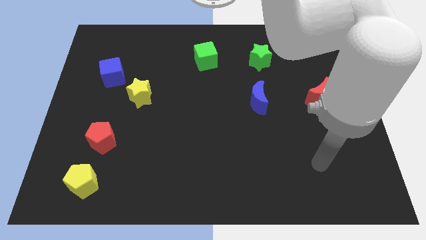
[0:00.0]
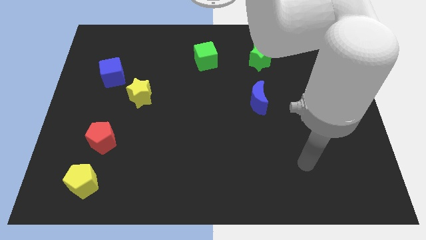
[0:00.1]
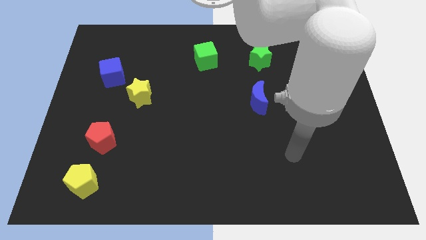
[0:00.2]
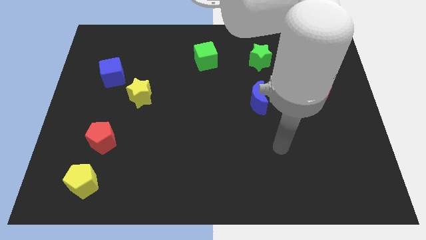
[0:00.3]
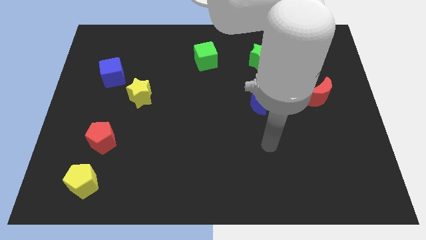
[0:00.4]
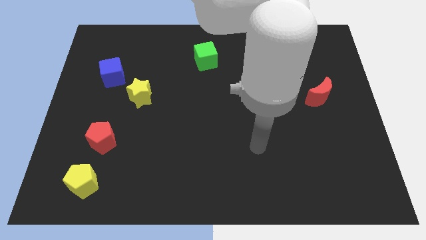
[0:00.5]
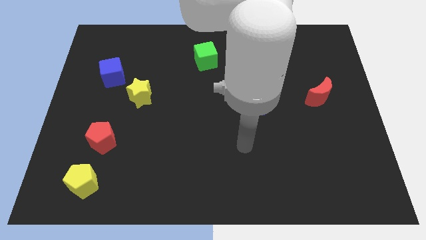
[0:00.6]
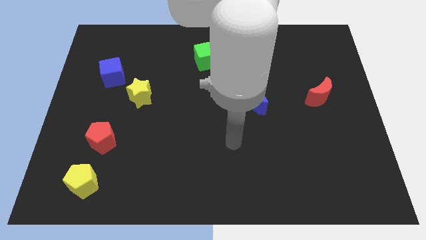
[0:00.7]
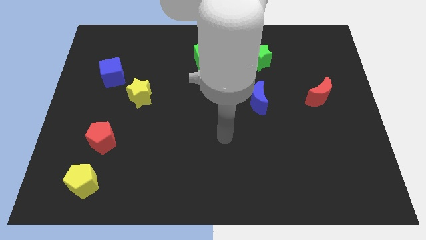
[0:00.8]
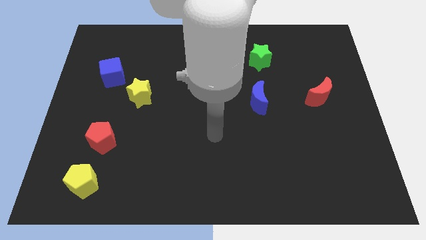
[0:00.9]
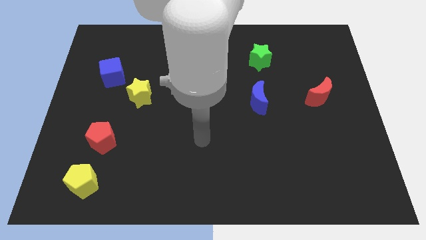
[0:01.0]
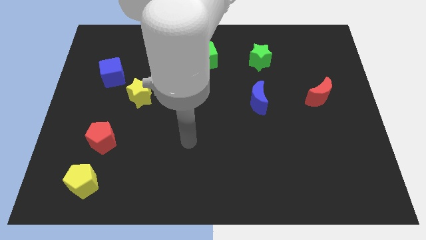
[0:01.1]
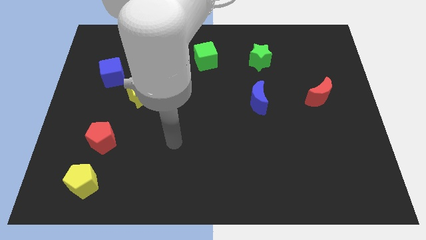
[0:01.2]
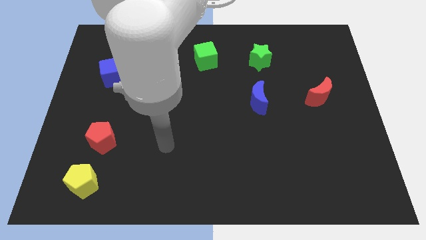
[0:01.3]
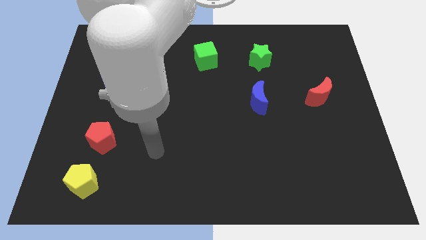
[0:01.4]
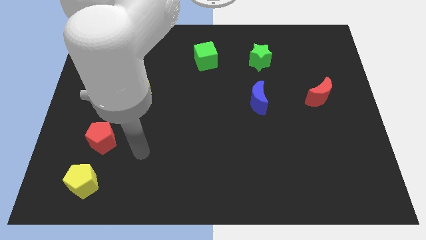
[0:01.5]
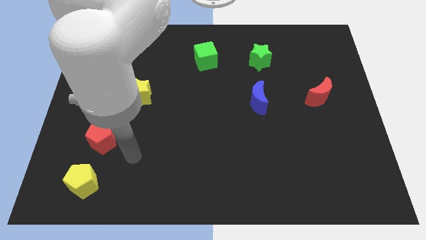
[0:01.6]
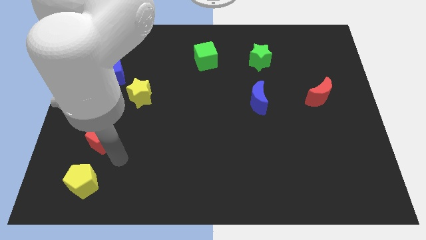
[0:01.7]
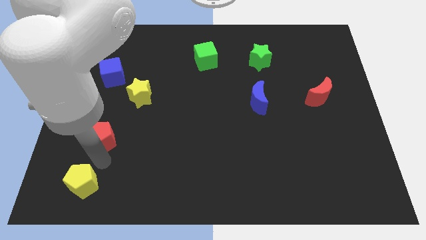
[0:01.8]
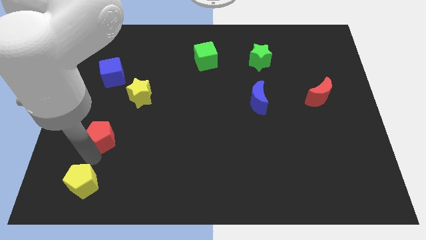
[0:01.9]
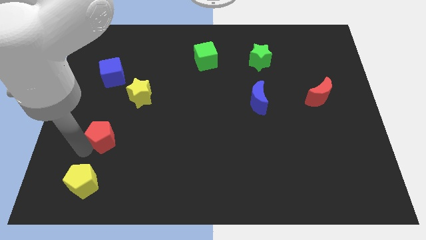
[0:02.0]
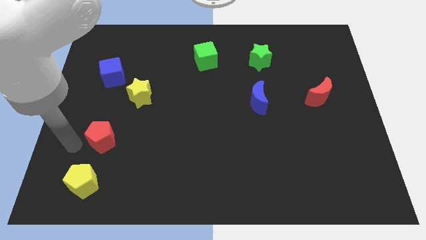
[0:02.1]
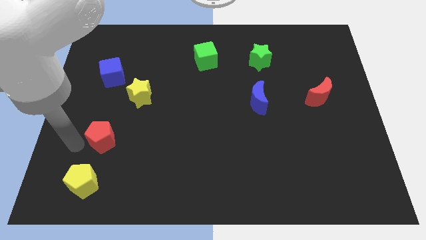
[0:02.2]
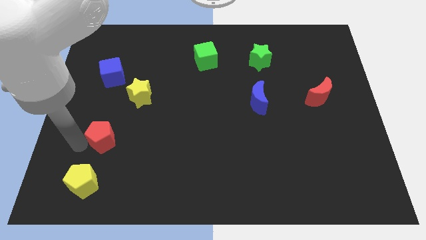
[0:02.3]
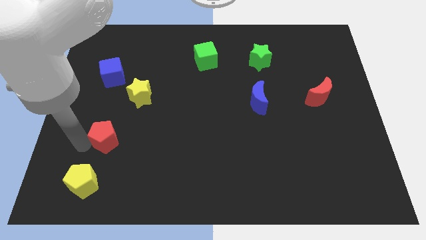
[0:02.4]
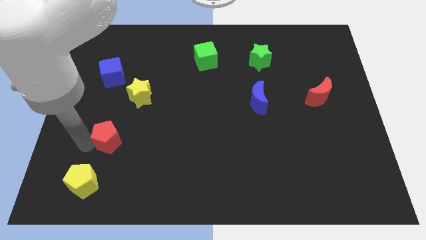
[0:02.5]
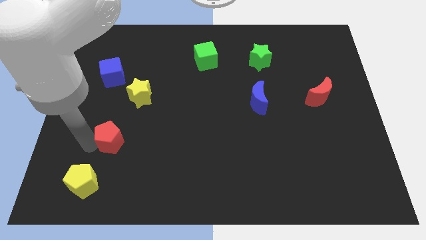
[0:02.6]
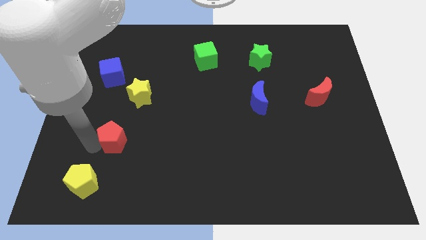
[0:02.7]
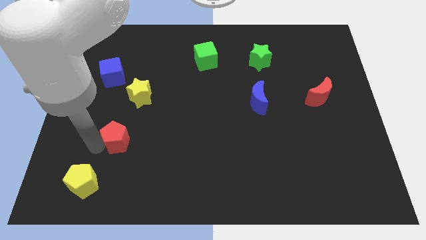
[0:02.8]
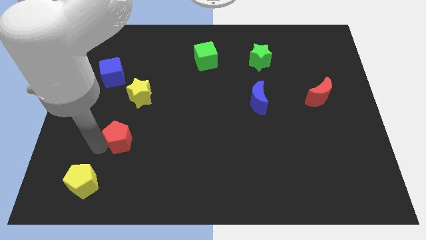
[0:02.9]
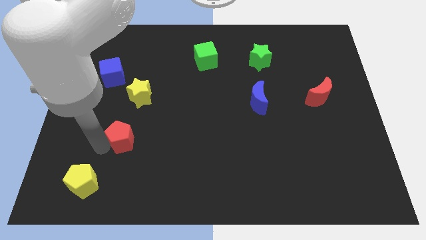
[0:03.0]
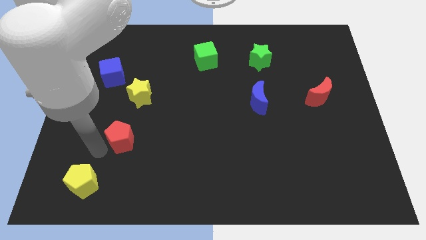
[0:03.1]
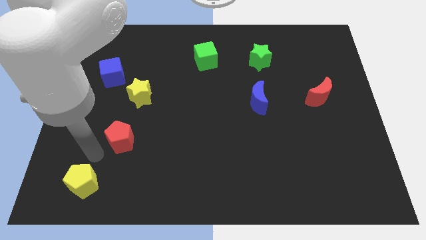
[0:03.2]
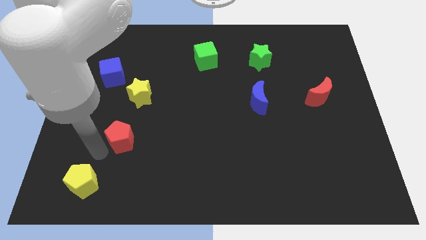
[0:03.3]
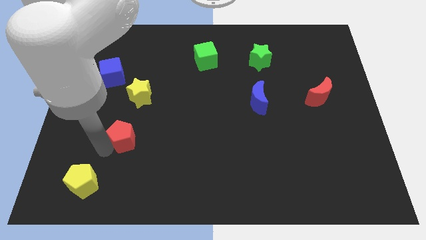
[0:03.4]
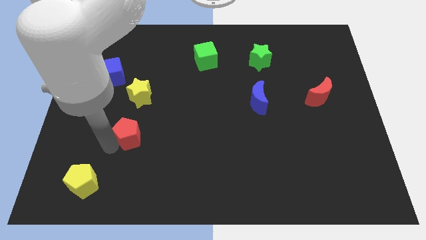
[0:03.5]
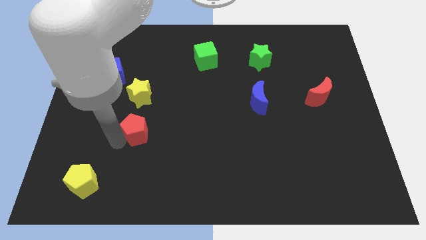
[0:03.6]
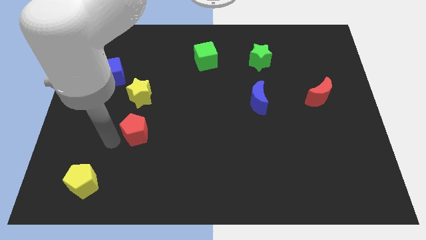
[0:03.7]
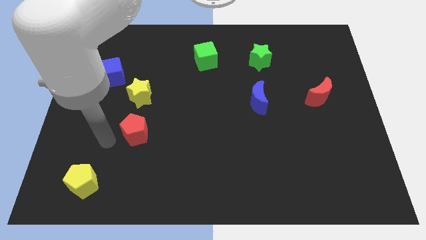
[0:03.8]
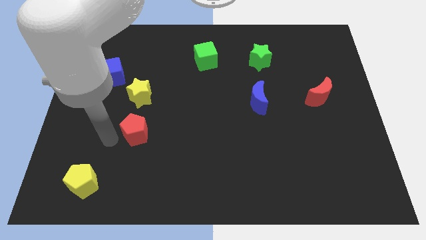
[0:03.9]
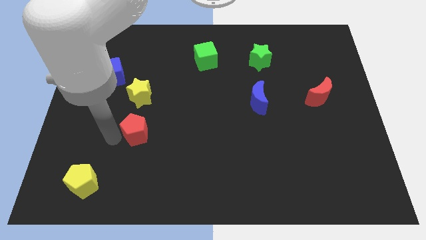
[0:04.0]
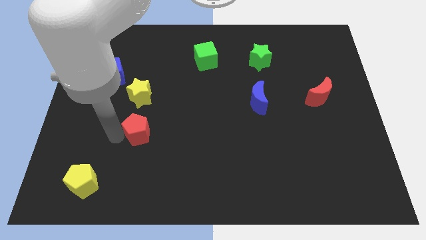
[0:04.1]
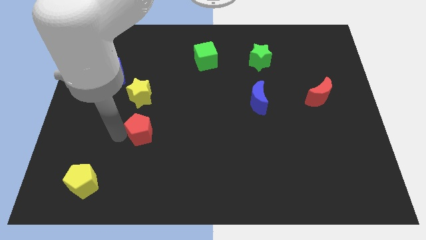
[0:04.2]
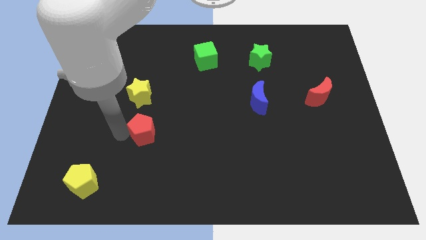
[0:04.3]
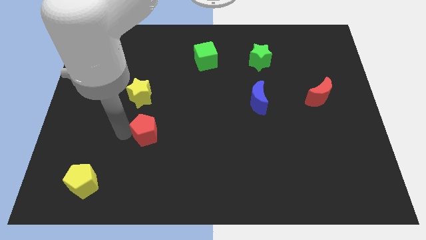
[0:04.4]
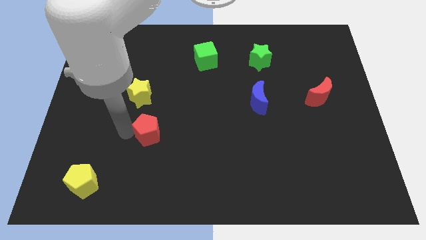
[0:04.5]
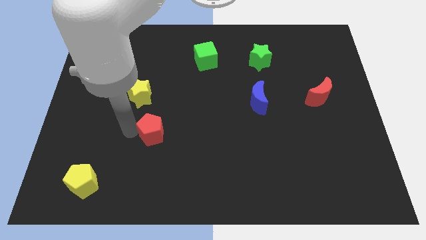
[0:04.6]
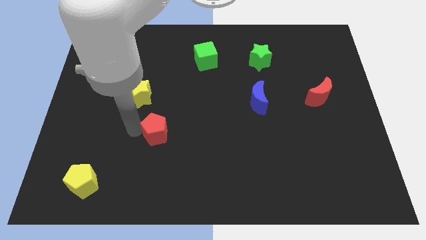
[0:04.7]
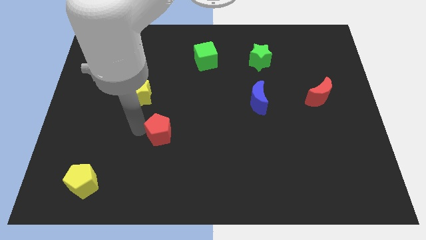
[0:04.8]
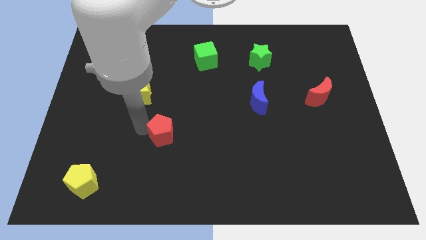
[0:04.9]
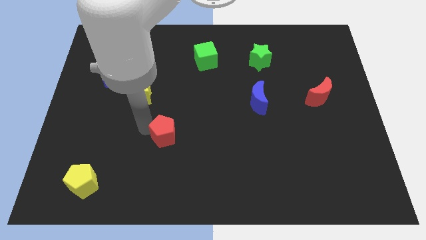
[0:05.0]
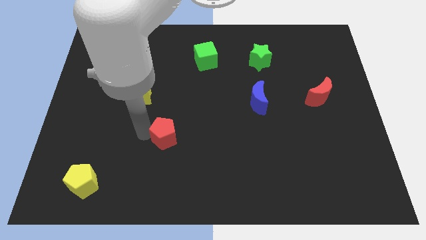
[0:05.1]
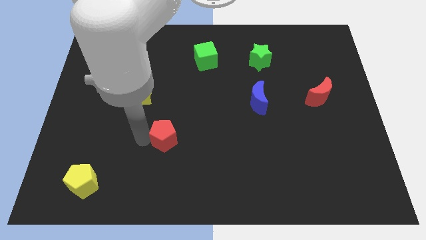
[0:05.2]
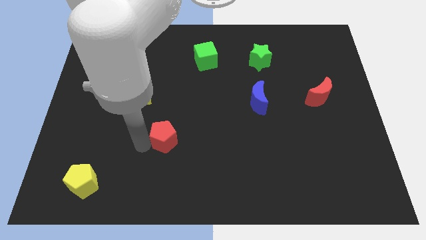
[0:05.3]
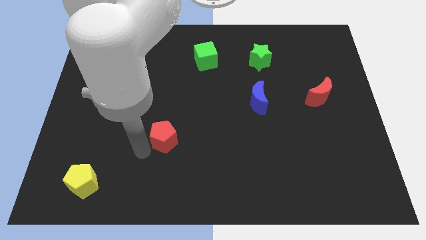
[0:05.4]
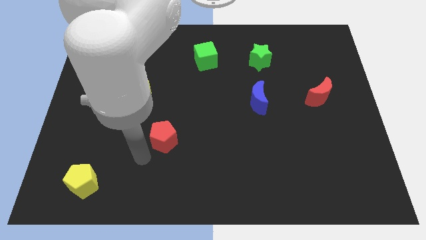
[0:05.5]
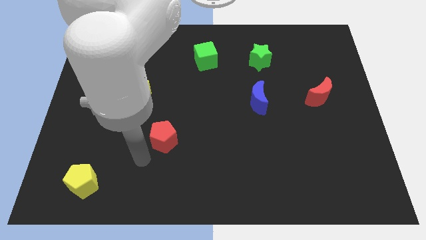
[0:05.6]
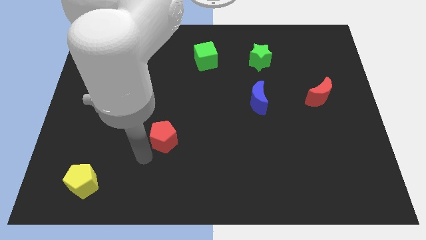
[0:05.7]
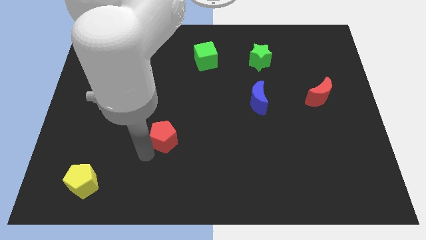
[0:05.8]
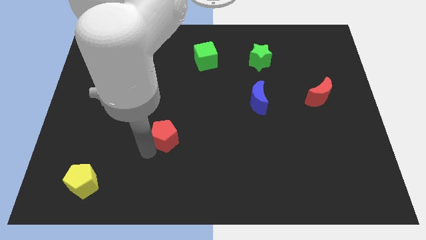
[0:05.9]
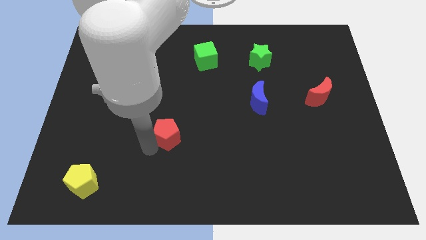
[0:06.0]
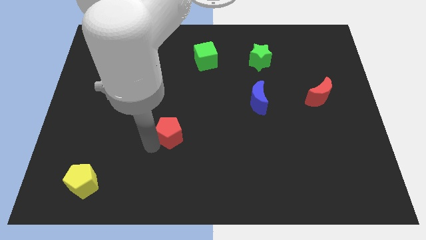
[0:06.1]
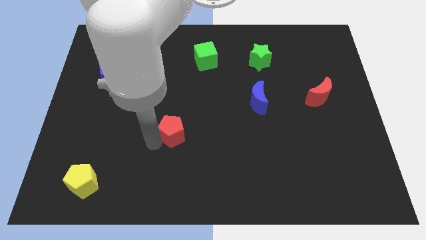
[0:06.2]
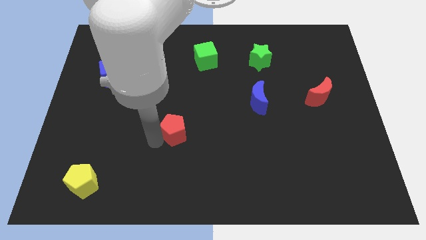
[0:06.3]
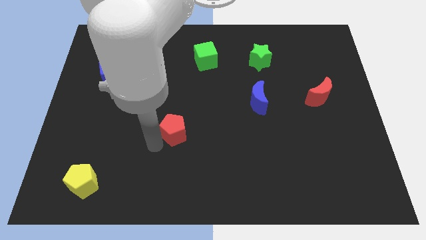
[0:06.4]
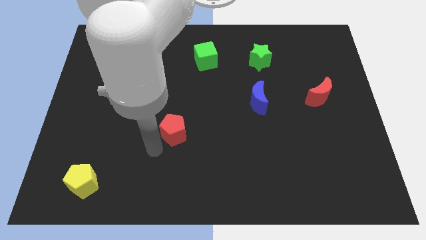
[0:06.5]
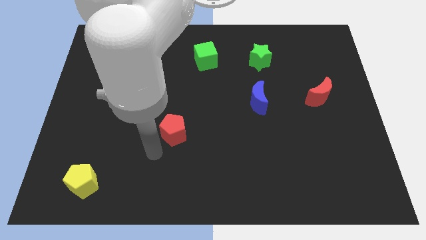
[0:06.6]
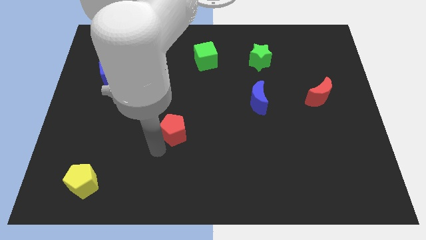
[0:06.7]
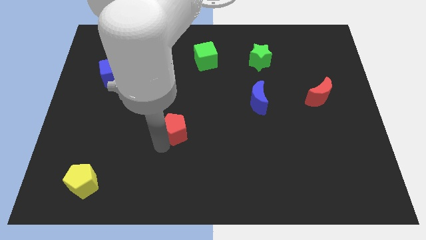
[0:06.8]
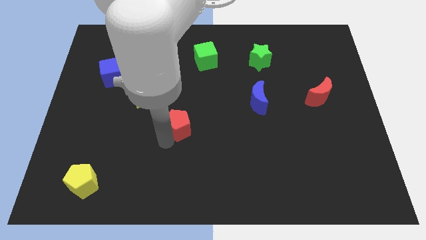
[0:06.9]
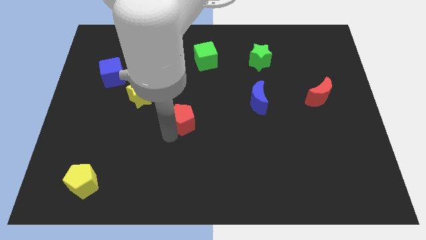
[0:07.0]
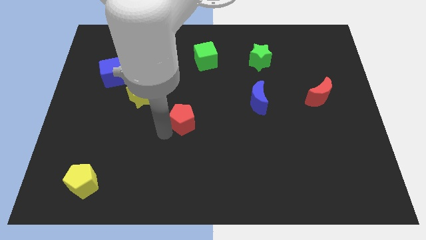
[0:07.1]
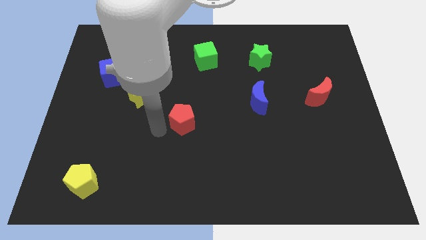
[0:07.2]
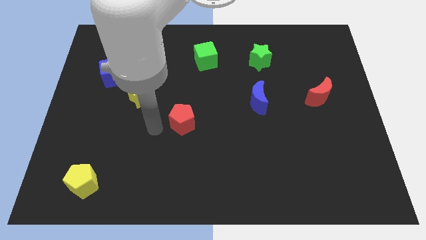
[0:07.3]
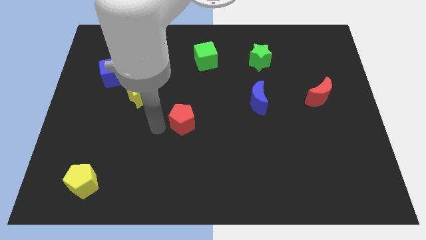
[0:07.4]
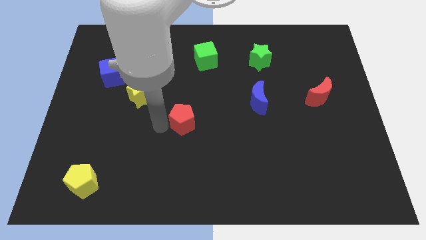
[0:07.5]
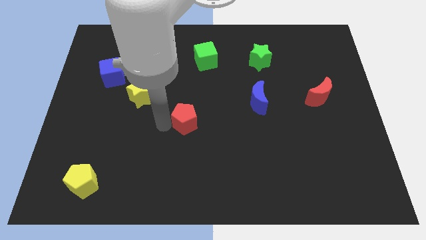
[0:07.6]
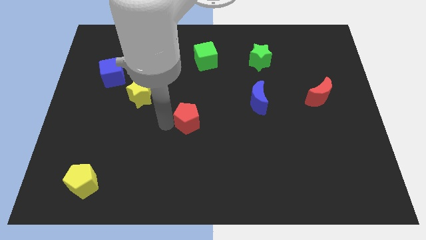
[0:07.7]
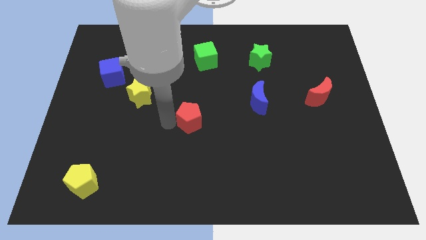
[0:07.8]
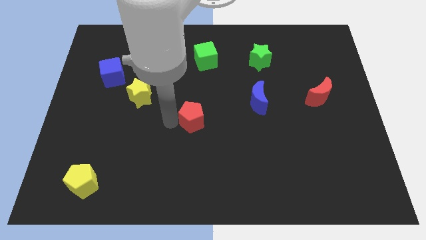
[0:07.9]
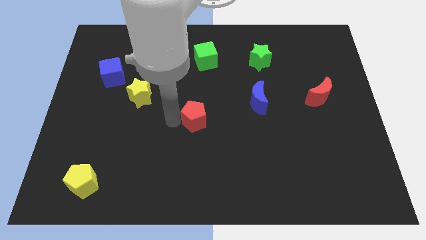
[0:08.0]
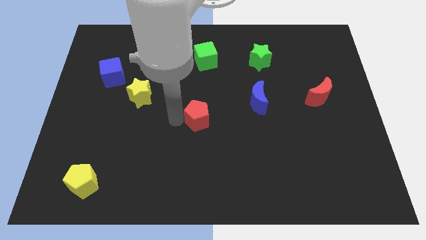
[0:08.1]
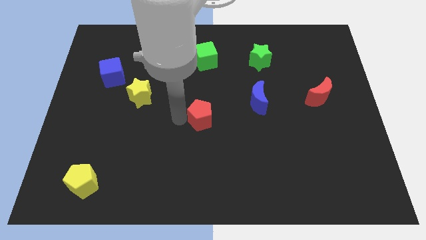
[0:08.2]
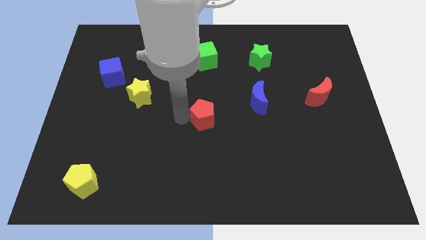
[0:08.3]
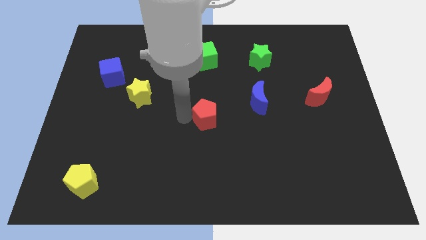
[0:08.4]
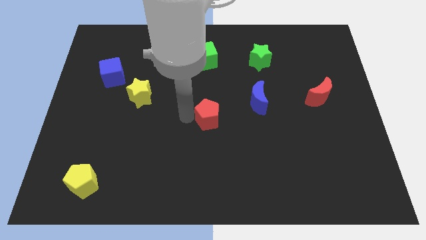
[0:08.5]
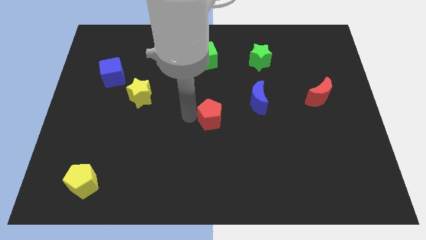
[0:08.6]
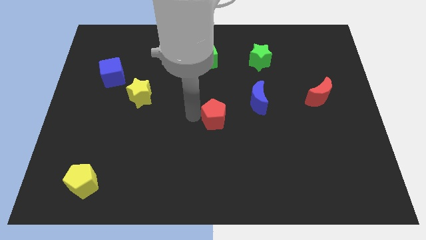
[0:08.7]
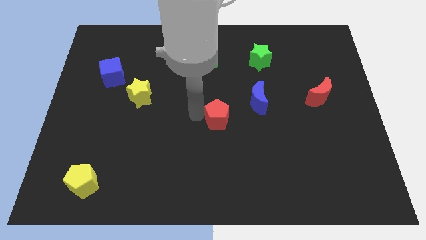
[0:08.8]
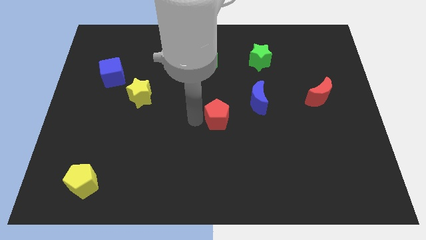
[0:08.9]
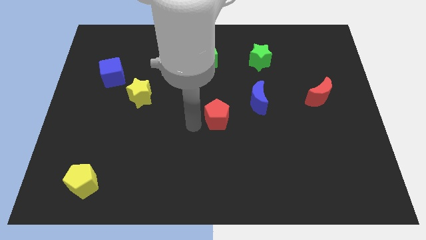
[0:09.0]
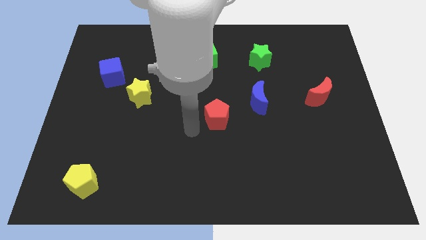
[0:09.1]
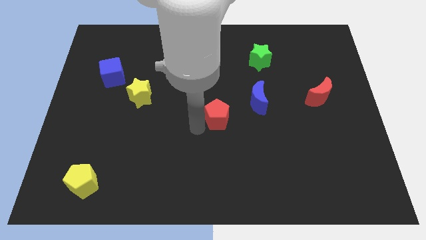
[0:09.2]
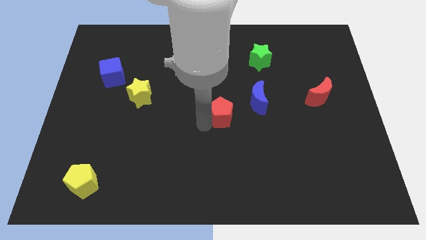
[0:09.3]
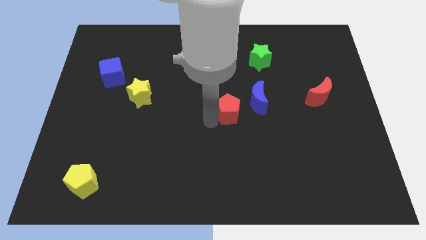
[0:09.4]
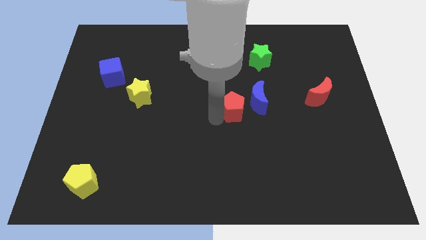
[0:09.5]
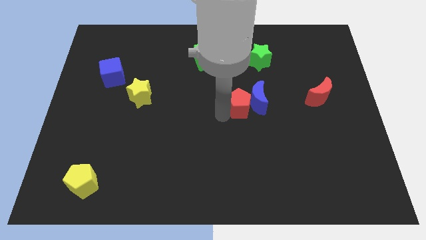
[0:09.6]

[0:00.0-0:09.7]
push the red pentagon next to the blue moon
